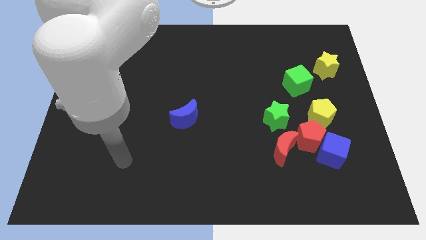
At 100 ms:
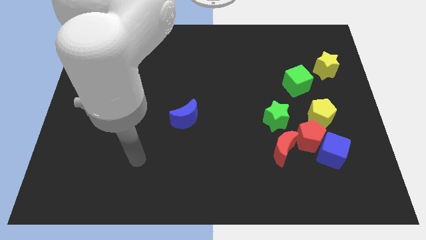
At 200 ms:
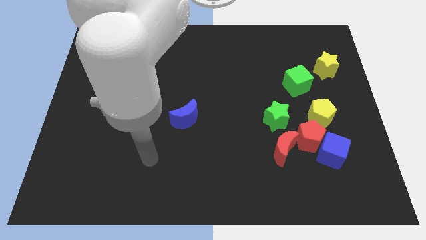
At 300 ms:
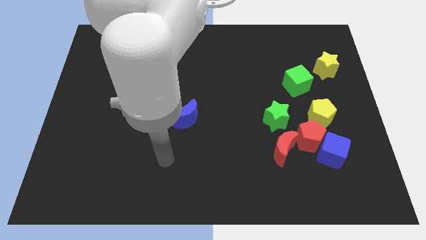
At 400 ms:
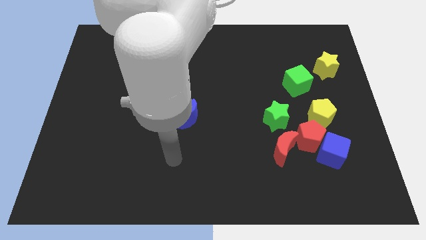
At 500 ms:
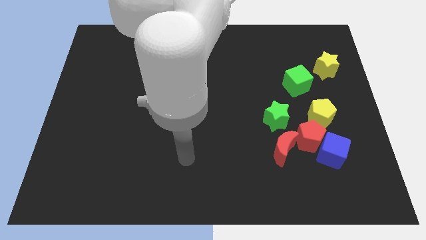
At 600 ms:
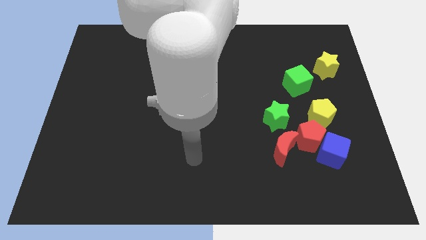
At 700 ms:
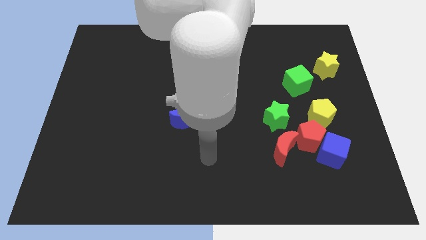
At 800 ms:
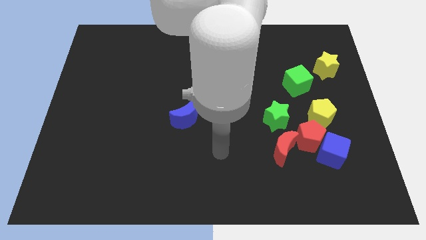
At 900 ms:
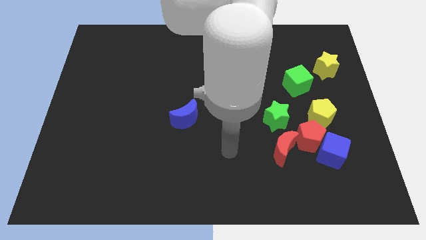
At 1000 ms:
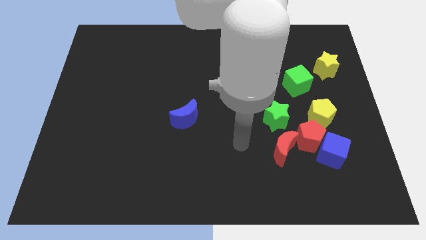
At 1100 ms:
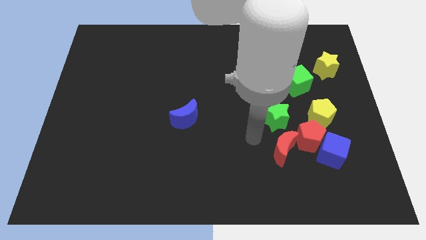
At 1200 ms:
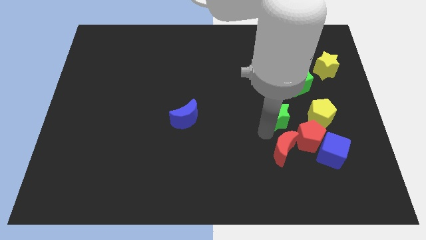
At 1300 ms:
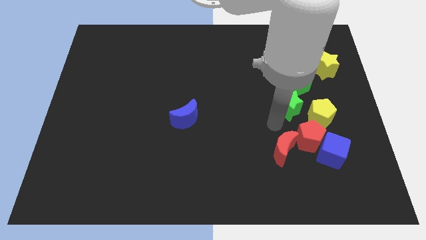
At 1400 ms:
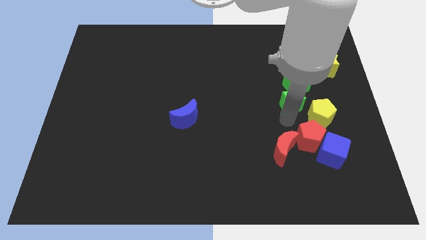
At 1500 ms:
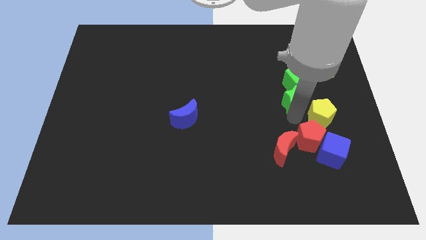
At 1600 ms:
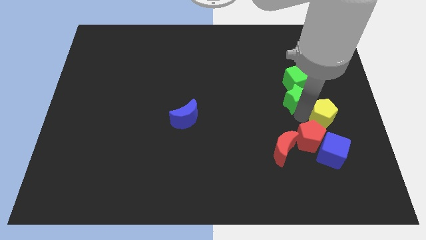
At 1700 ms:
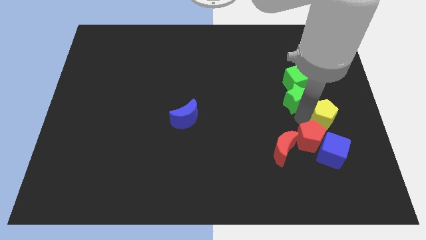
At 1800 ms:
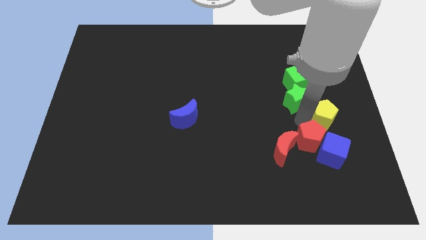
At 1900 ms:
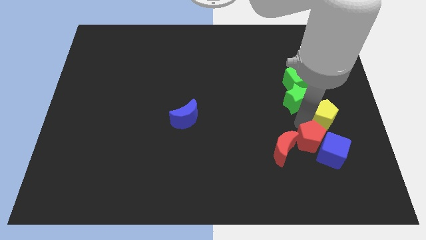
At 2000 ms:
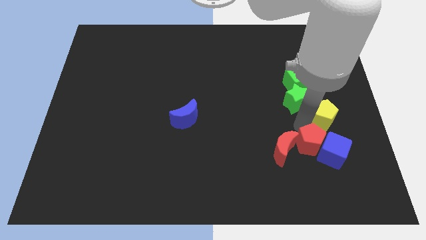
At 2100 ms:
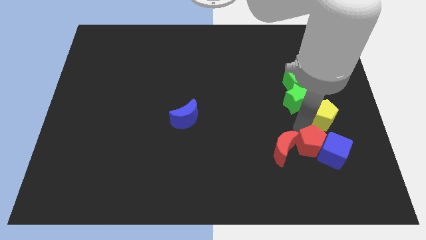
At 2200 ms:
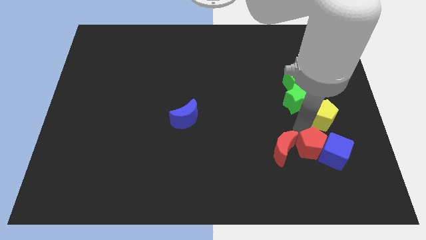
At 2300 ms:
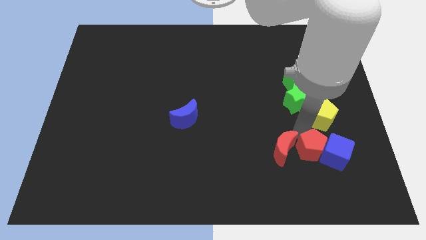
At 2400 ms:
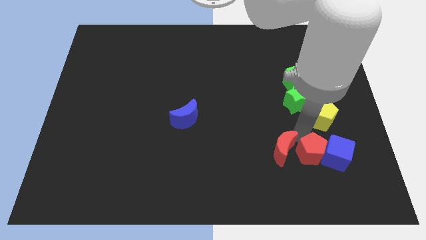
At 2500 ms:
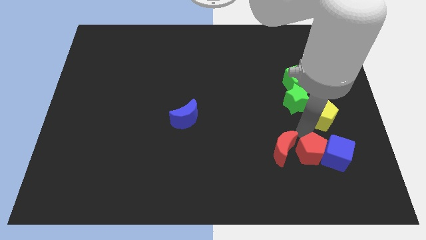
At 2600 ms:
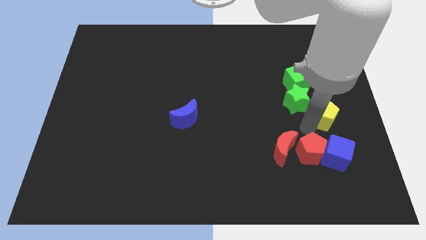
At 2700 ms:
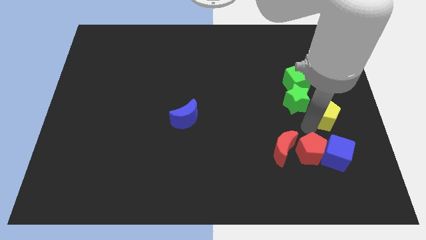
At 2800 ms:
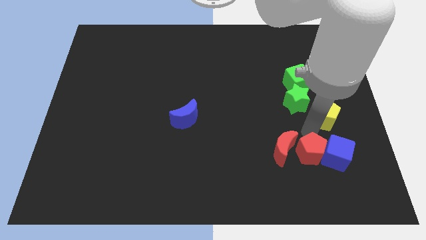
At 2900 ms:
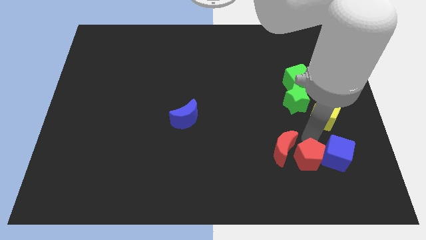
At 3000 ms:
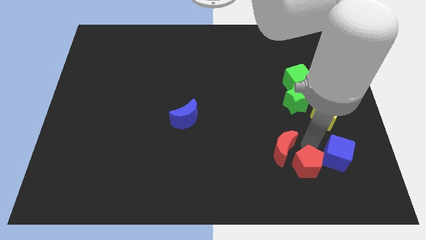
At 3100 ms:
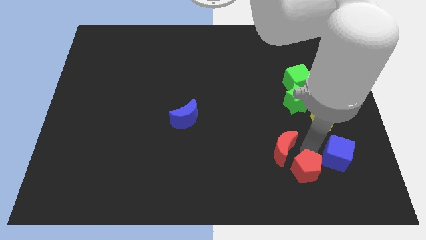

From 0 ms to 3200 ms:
pull the red pentagon apart from the clump

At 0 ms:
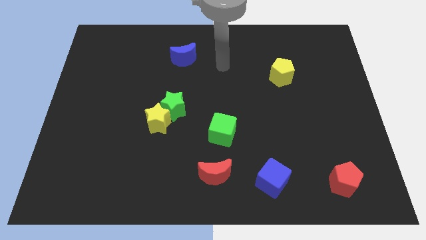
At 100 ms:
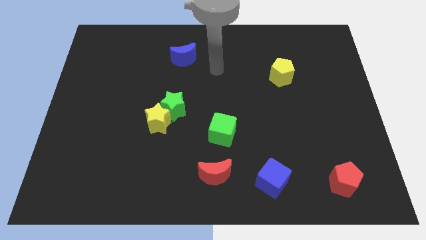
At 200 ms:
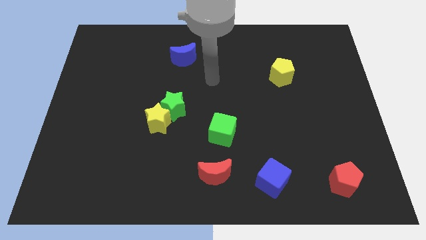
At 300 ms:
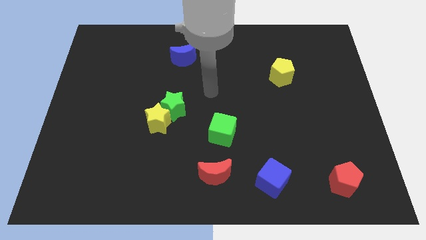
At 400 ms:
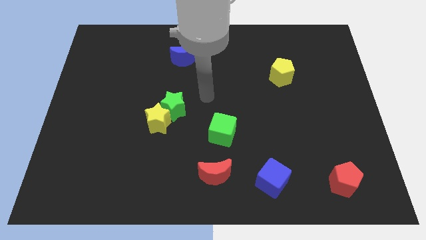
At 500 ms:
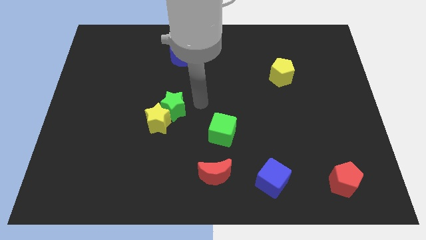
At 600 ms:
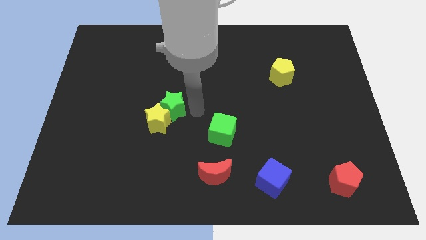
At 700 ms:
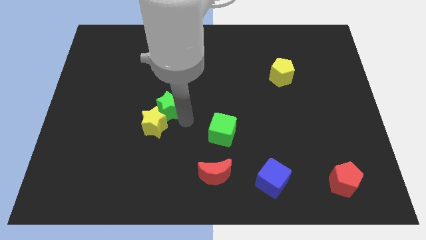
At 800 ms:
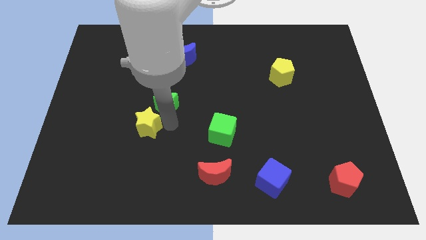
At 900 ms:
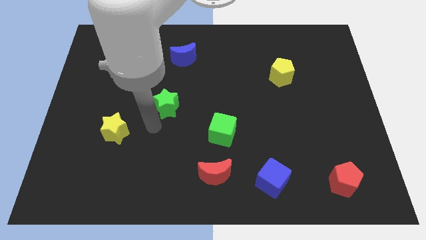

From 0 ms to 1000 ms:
pull the green star apart from the yellow star

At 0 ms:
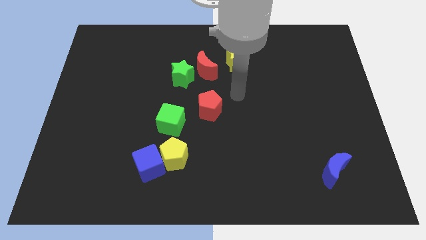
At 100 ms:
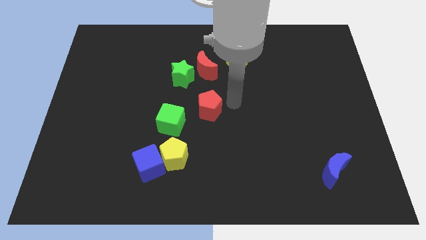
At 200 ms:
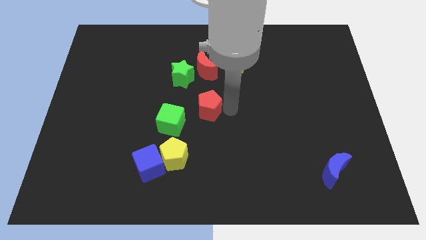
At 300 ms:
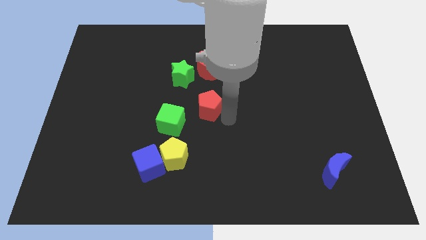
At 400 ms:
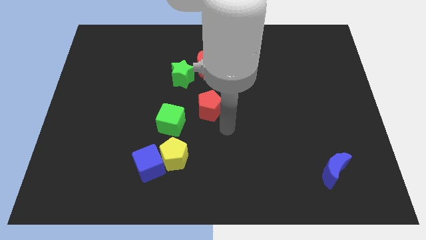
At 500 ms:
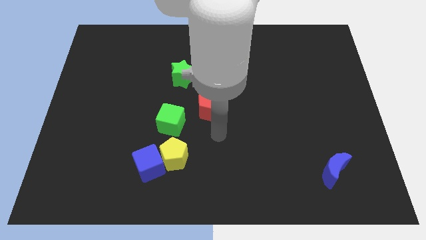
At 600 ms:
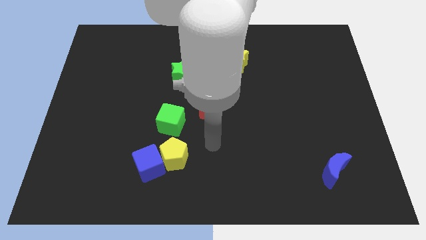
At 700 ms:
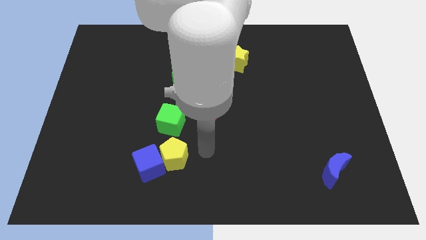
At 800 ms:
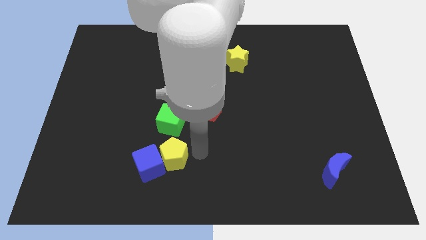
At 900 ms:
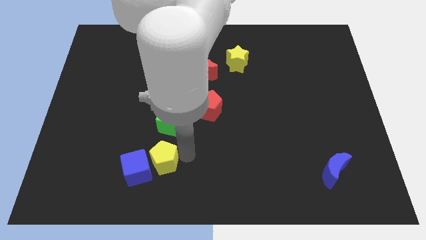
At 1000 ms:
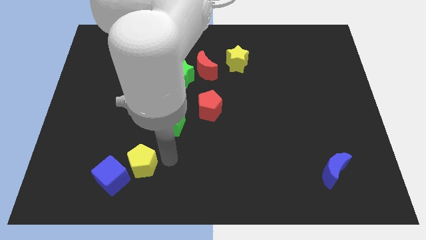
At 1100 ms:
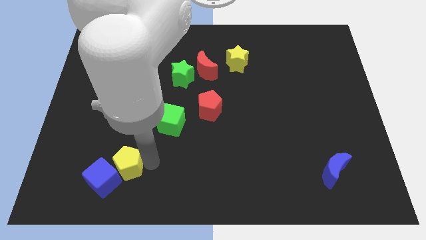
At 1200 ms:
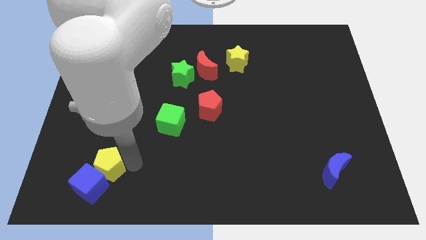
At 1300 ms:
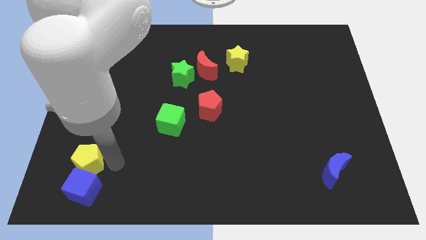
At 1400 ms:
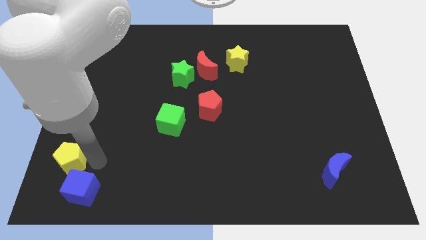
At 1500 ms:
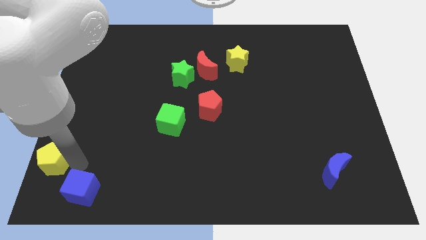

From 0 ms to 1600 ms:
move the blue cube away from the yellow pentagon

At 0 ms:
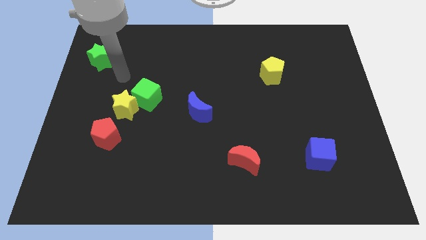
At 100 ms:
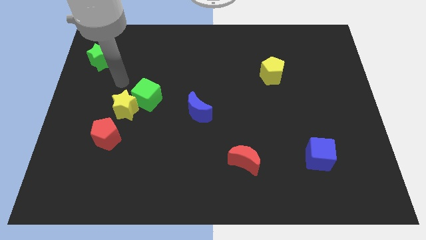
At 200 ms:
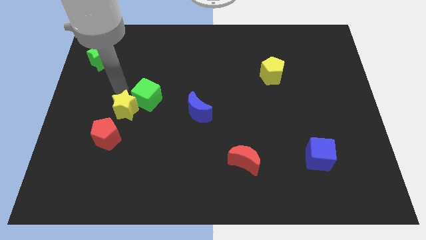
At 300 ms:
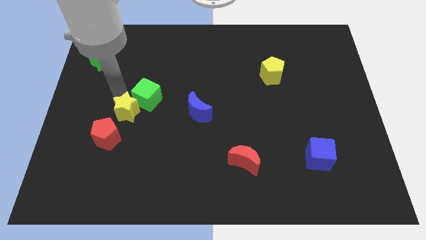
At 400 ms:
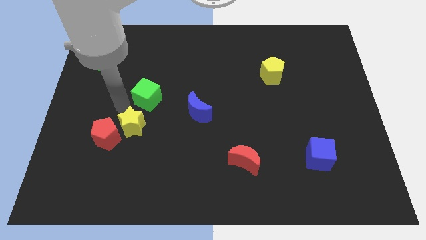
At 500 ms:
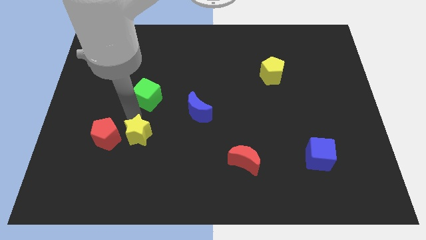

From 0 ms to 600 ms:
pull the green cube apart from the yellow star

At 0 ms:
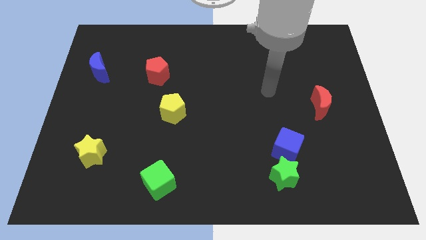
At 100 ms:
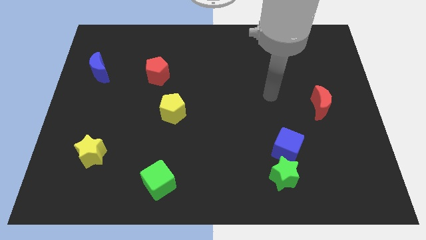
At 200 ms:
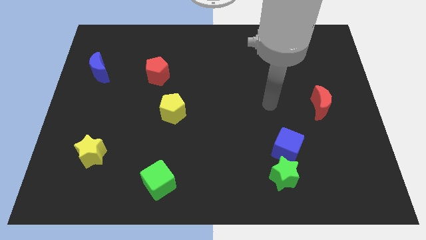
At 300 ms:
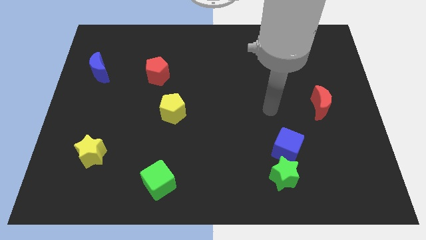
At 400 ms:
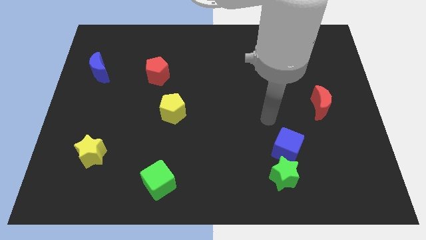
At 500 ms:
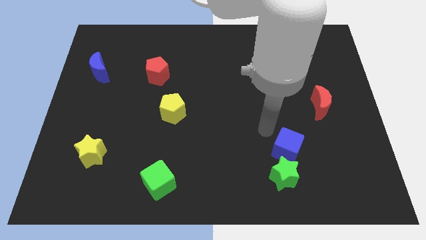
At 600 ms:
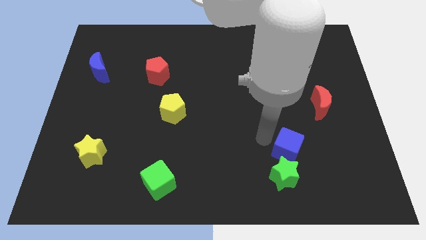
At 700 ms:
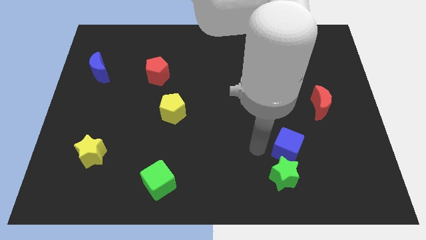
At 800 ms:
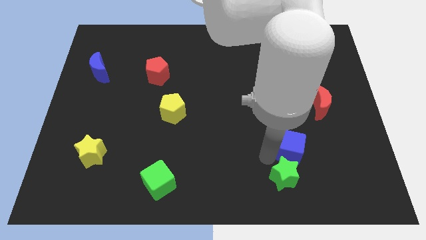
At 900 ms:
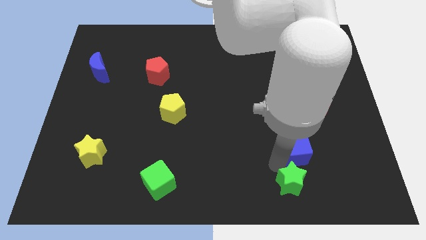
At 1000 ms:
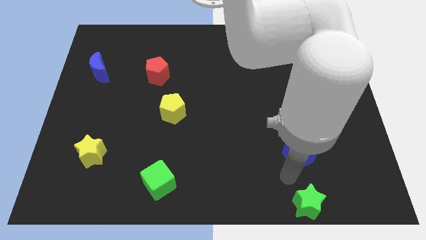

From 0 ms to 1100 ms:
separate the blue cube from the green star

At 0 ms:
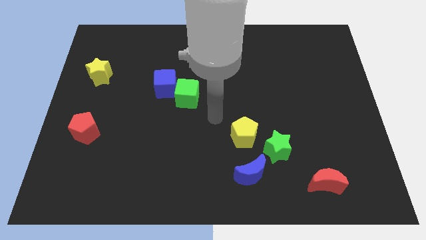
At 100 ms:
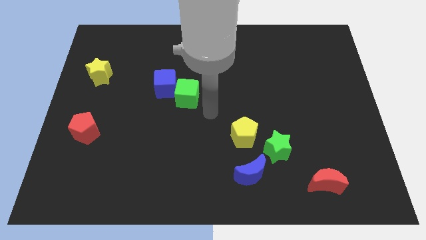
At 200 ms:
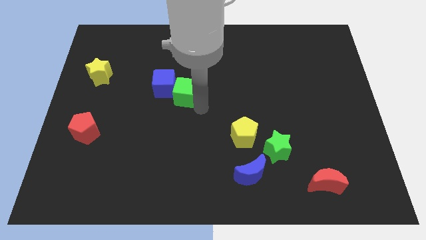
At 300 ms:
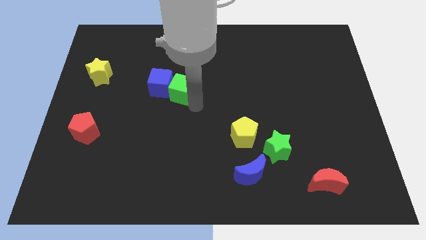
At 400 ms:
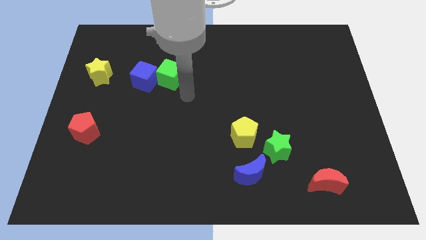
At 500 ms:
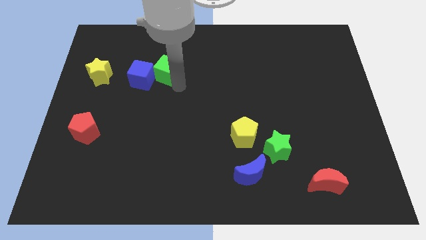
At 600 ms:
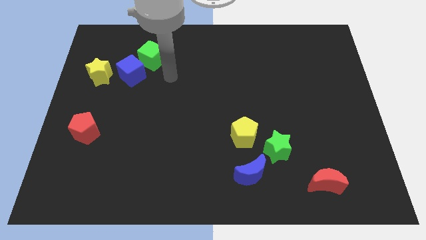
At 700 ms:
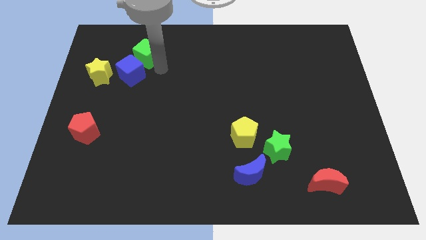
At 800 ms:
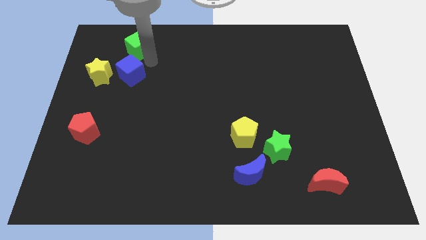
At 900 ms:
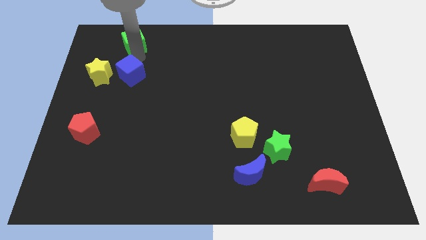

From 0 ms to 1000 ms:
pull the blue cube apart from the green cube

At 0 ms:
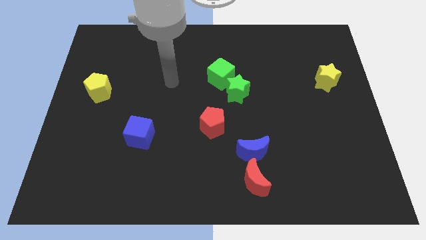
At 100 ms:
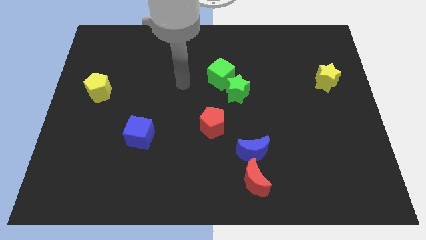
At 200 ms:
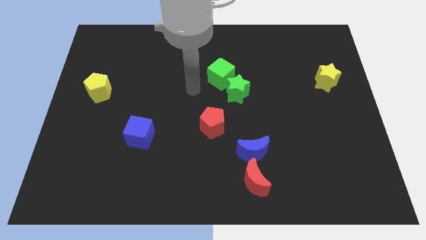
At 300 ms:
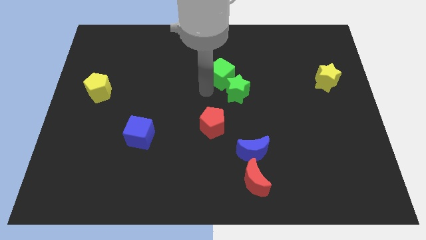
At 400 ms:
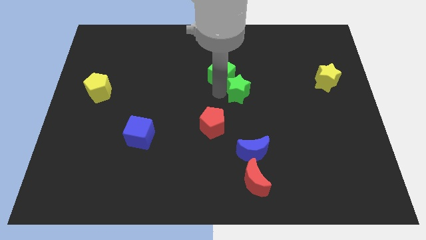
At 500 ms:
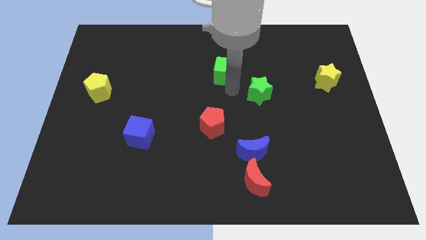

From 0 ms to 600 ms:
move the green cube away from the green star

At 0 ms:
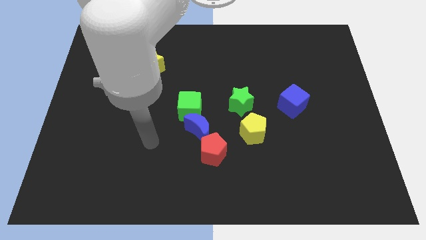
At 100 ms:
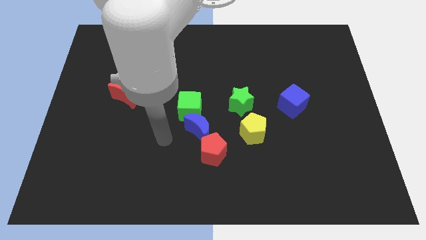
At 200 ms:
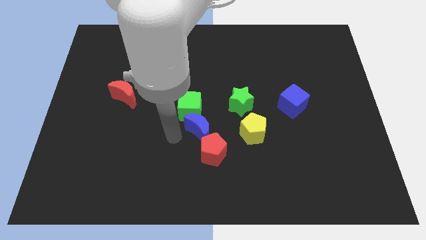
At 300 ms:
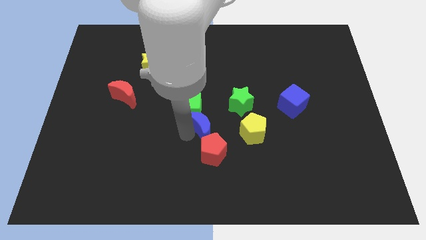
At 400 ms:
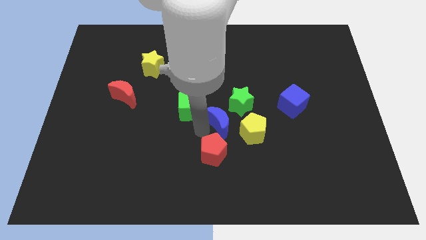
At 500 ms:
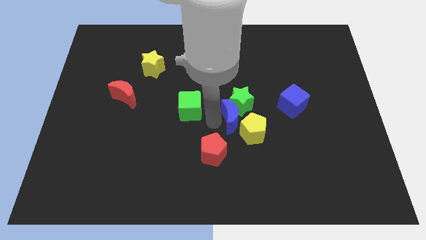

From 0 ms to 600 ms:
separate the green cube from the blue moon
